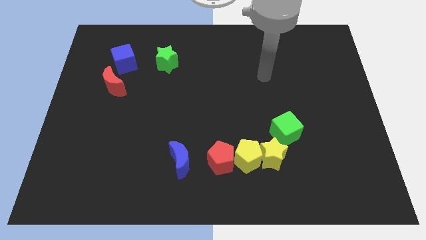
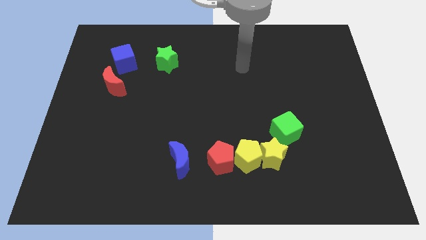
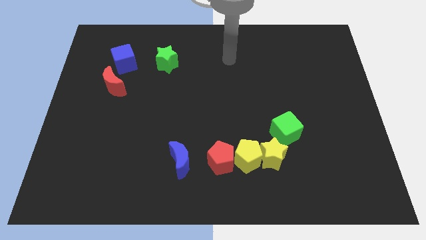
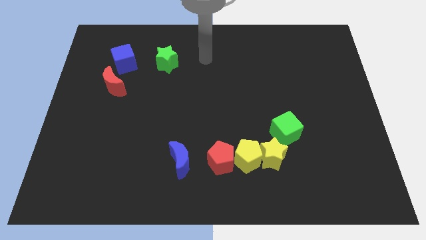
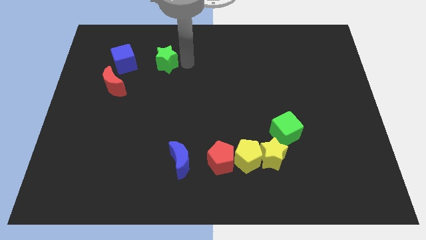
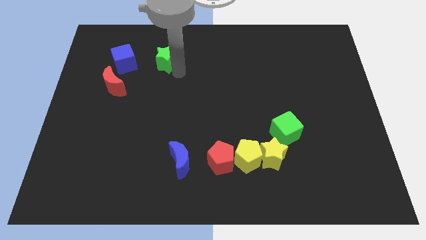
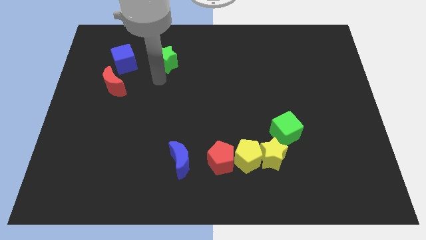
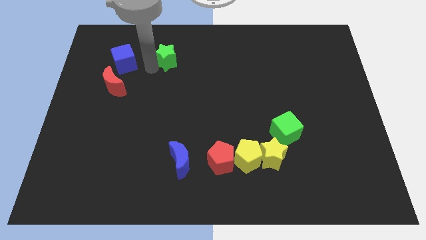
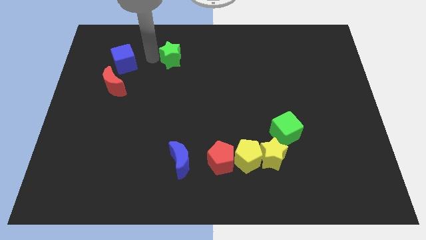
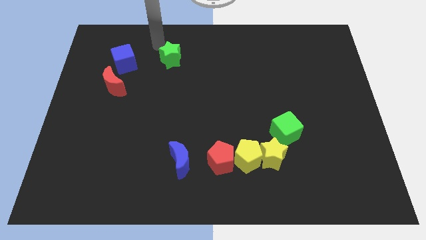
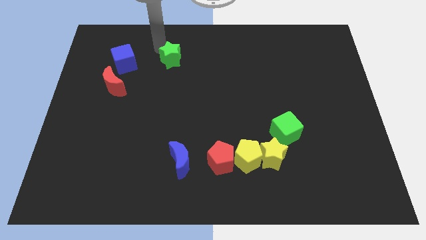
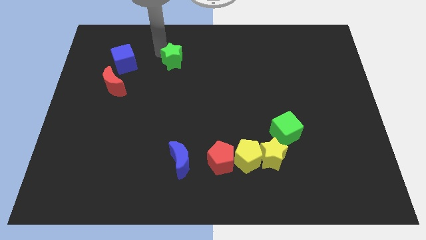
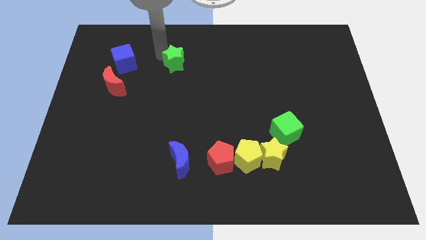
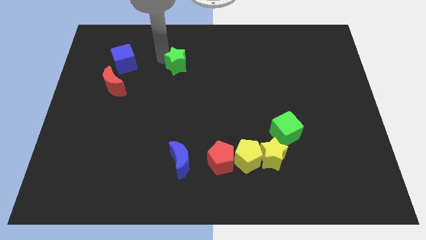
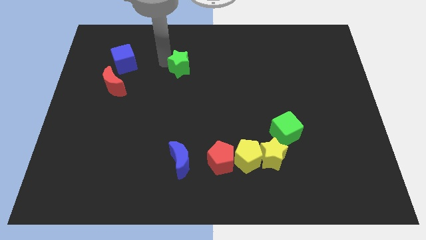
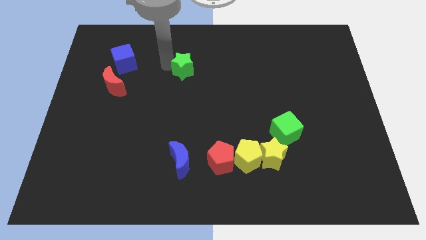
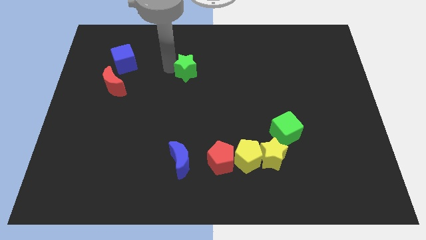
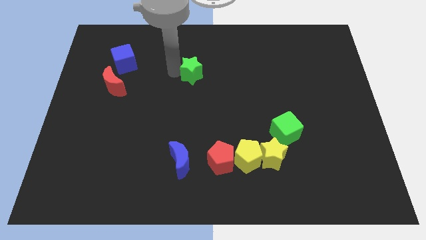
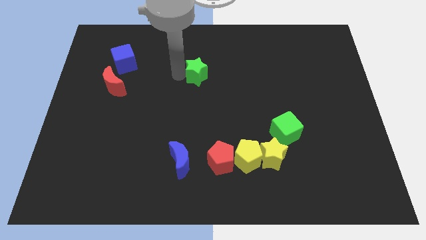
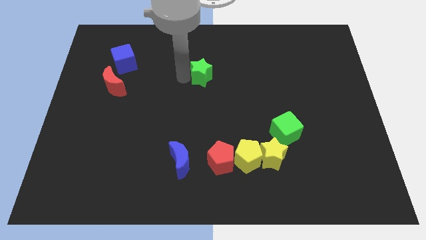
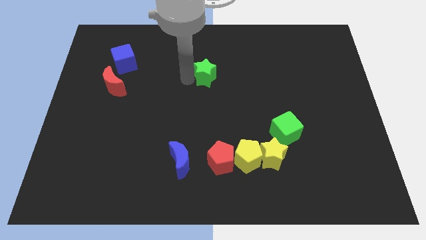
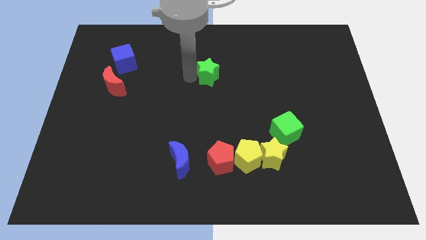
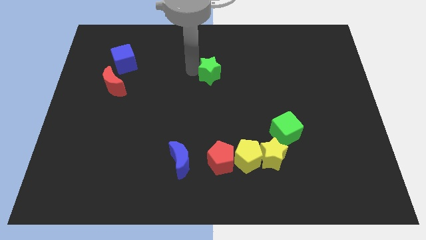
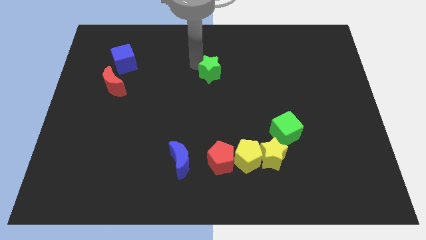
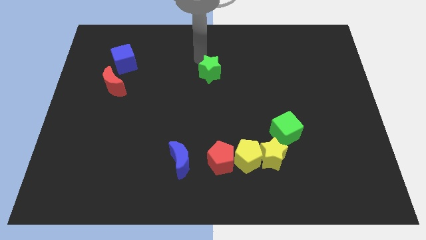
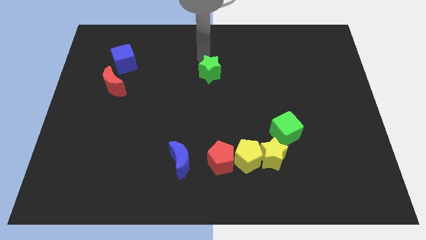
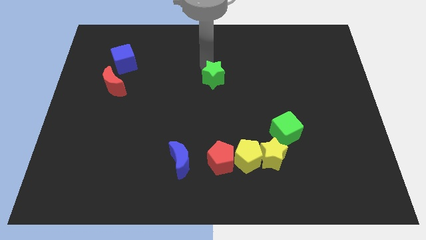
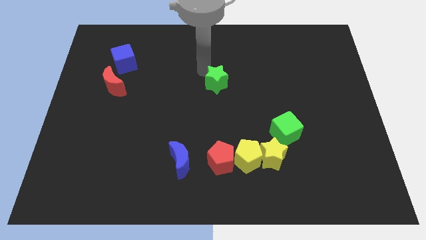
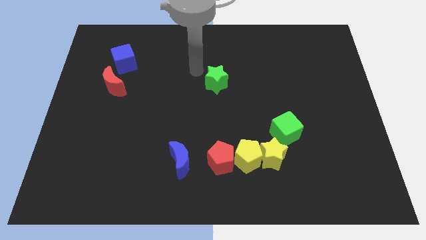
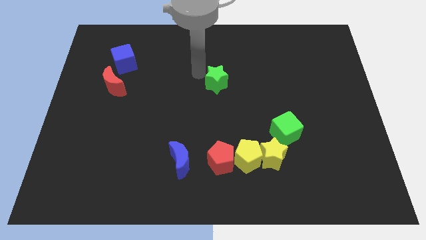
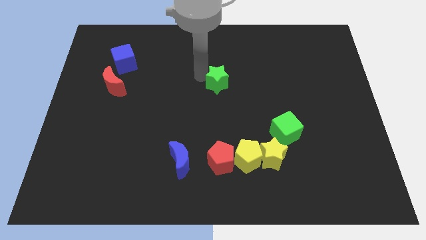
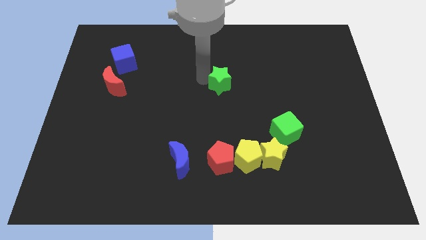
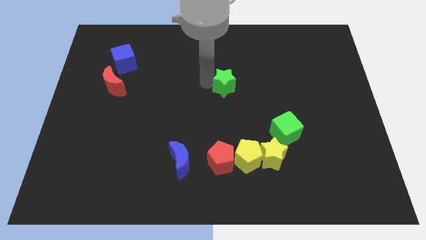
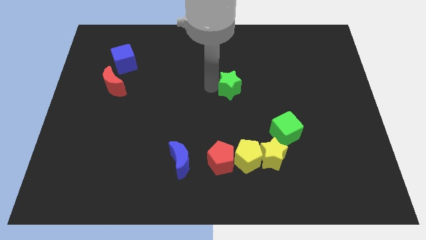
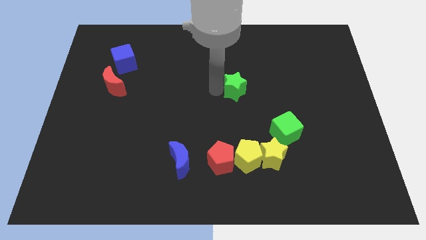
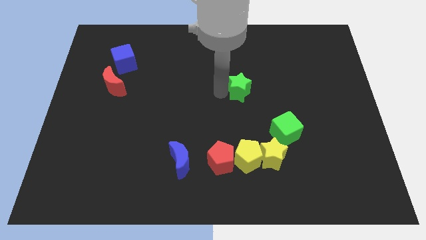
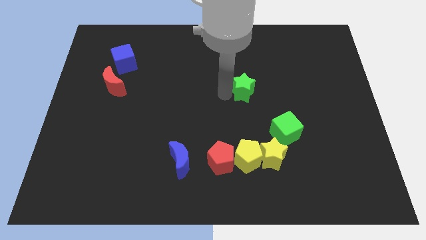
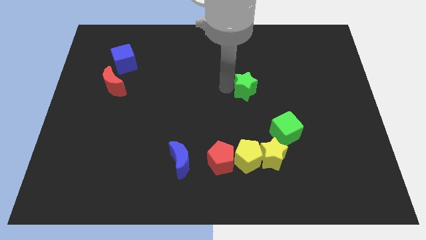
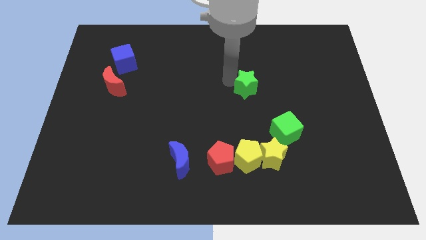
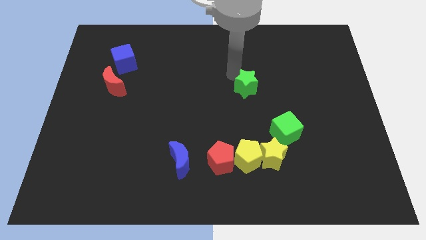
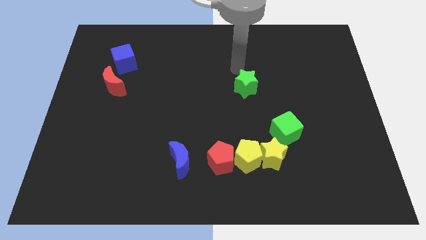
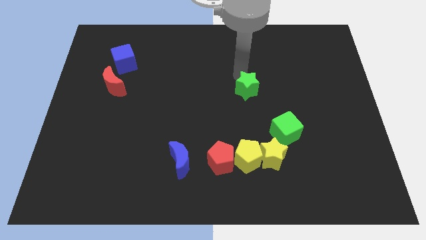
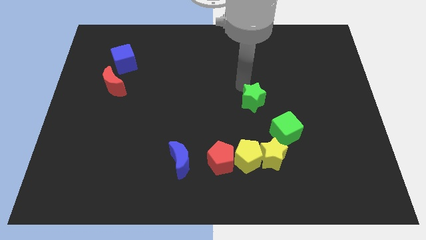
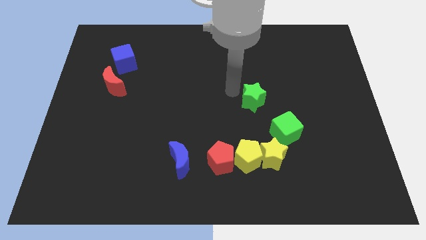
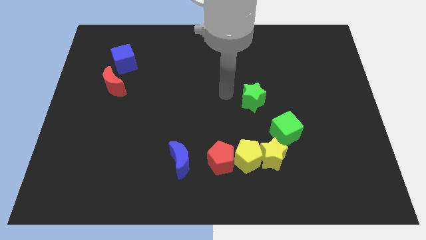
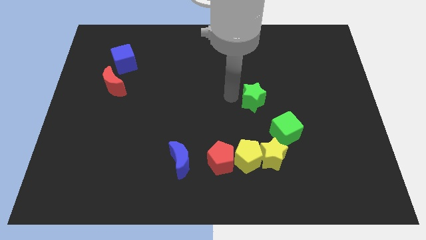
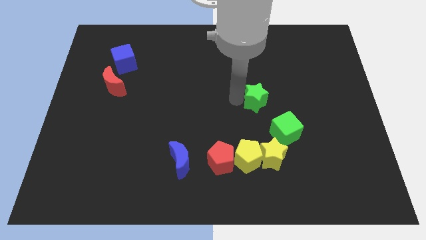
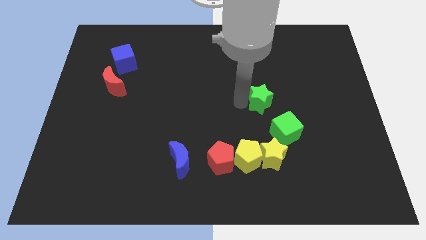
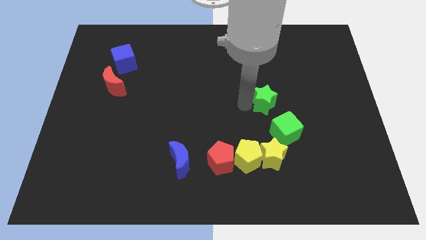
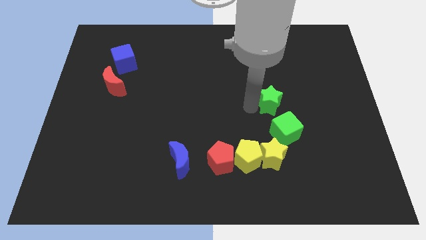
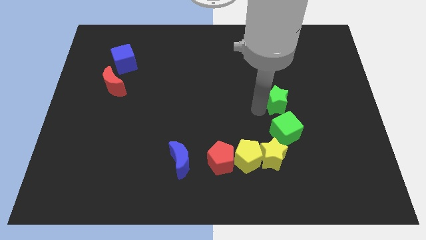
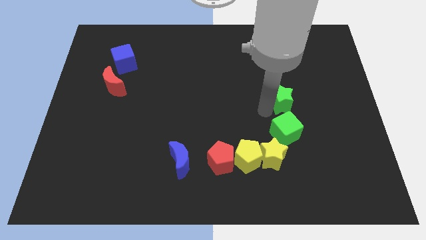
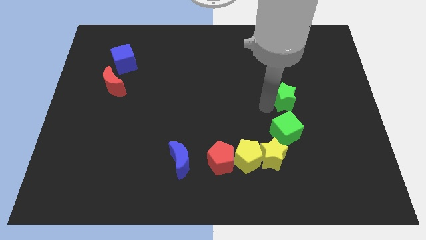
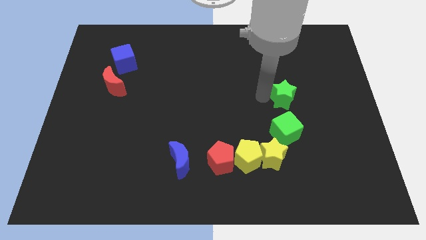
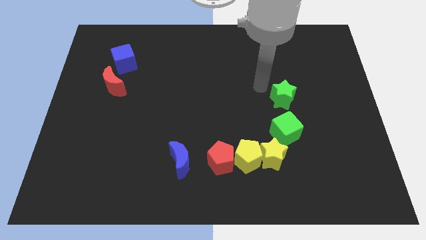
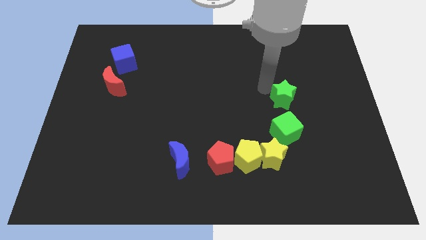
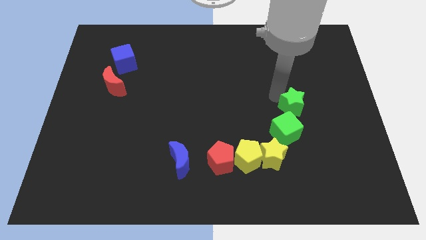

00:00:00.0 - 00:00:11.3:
move the green star to the top right of the green cube

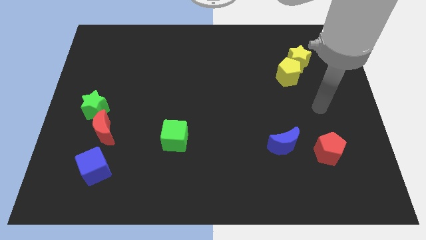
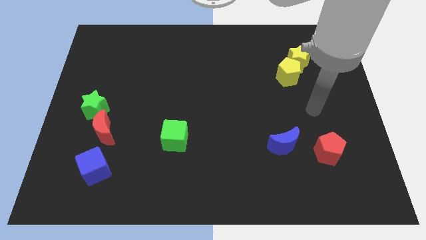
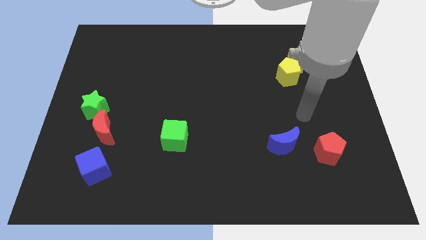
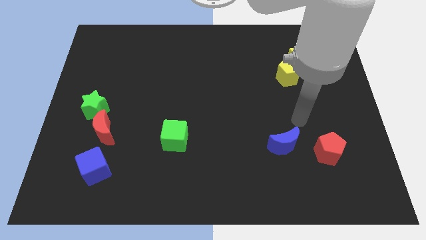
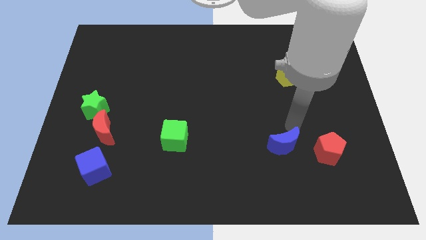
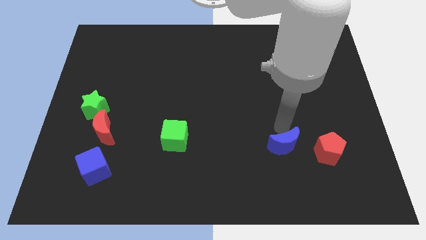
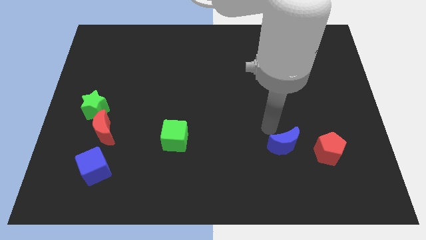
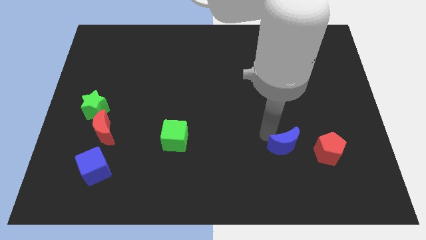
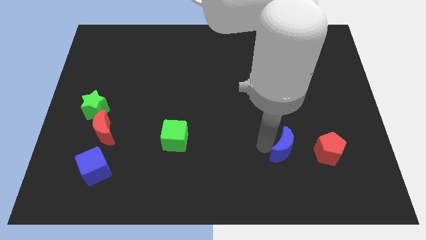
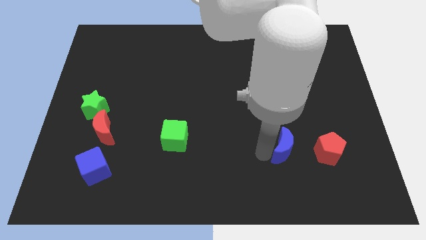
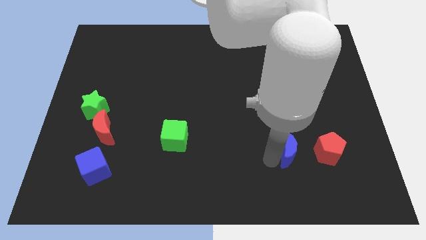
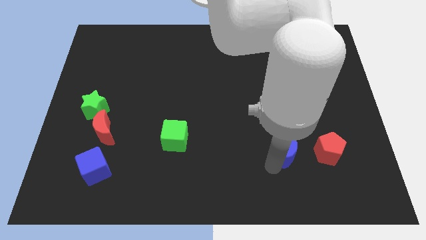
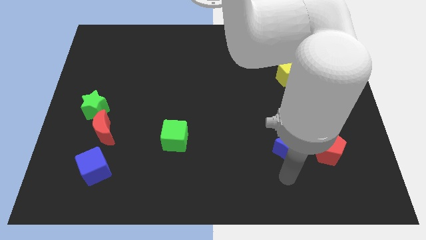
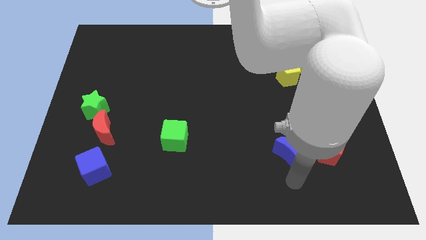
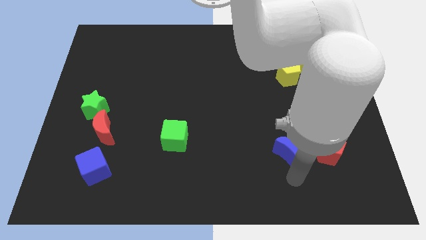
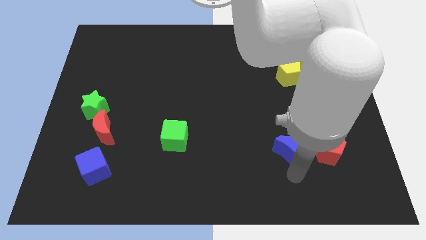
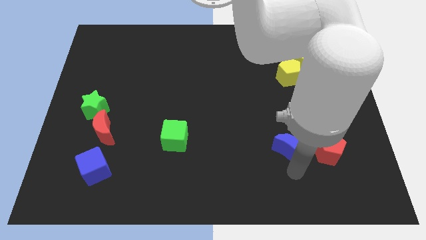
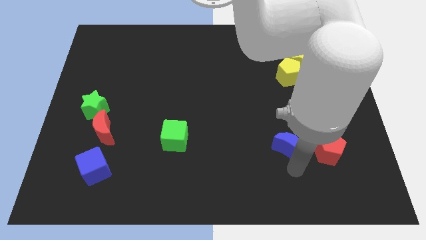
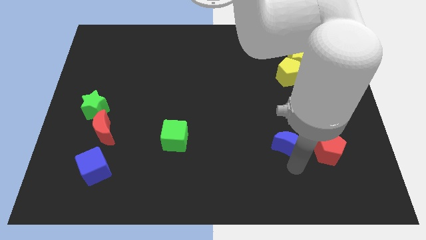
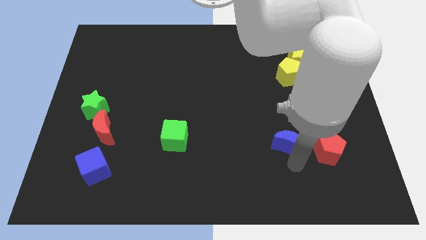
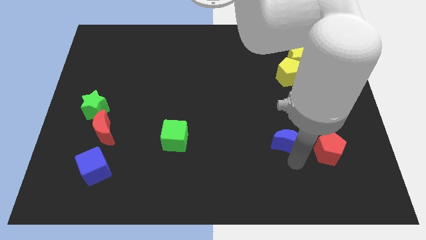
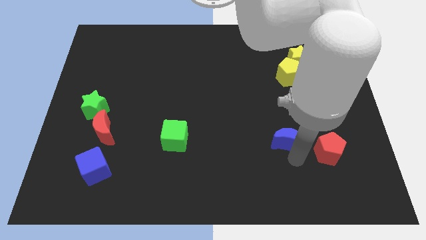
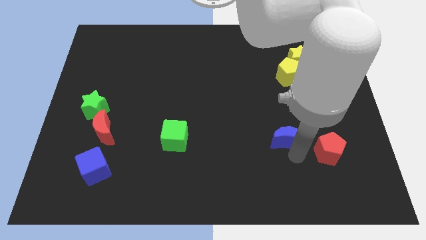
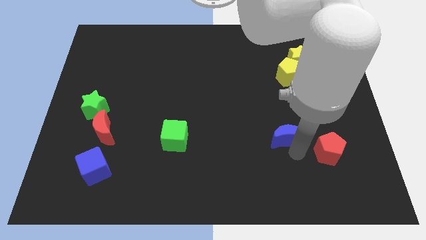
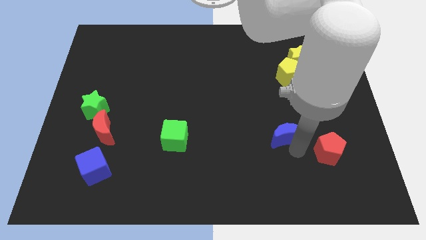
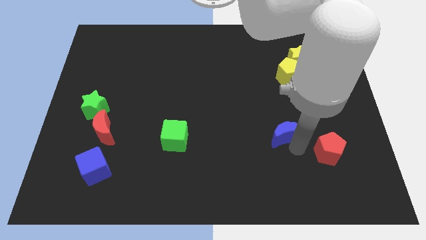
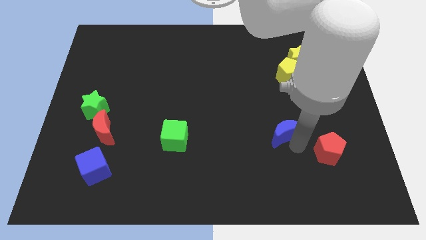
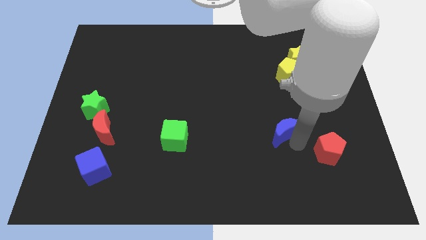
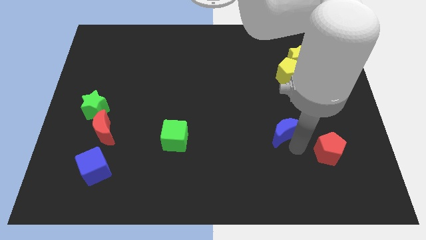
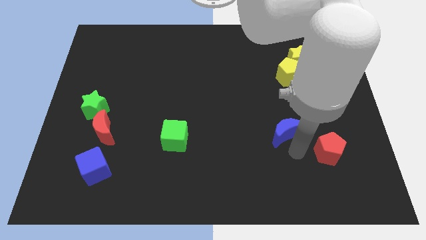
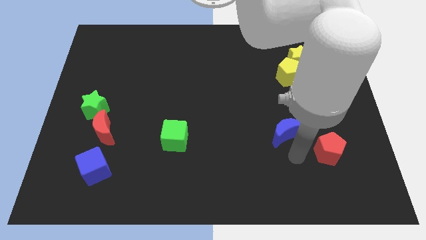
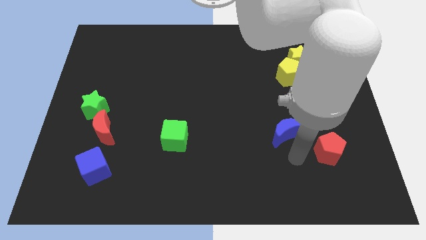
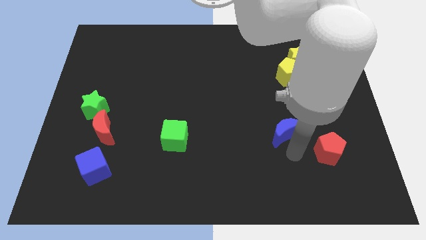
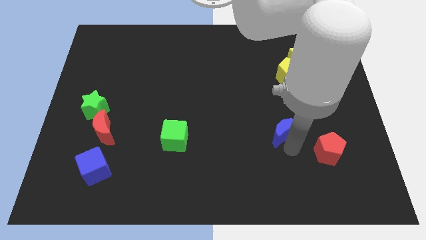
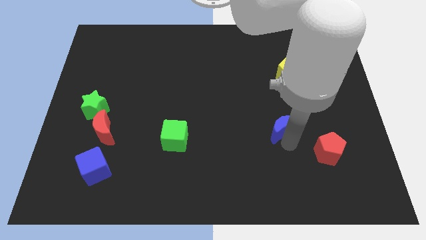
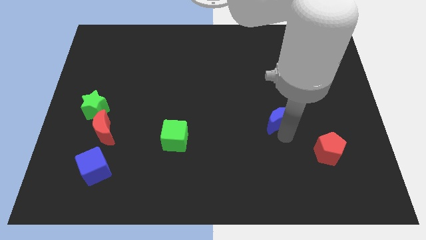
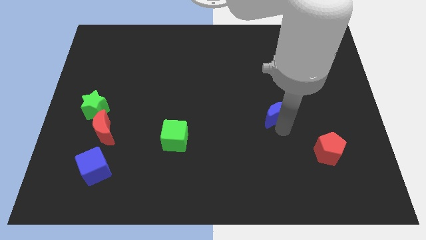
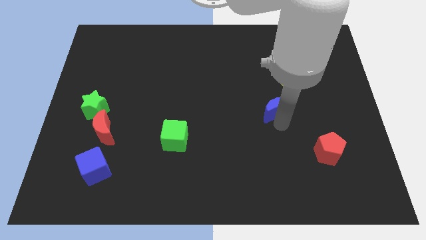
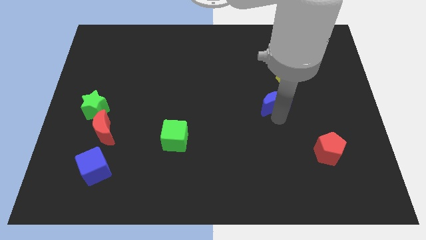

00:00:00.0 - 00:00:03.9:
push the blue moon to the bottom left of the yellow pentagon
